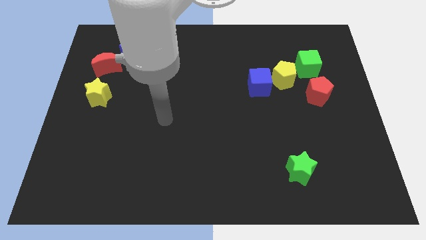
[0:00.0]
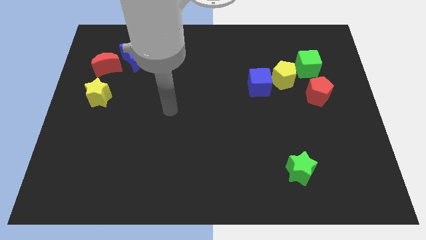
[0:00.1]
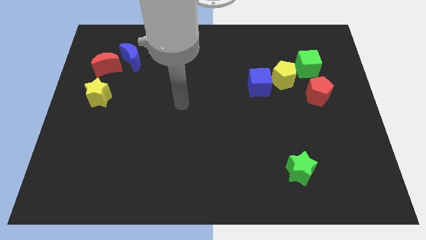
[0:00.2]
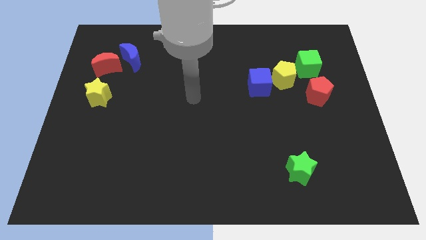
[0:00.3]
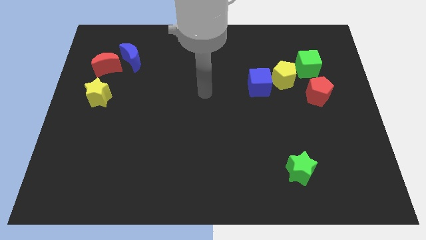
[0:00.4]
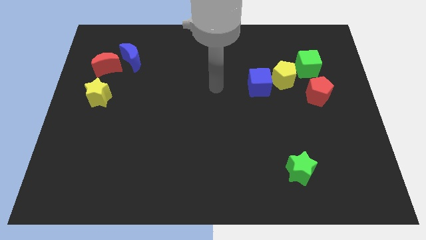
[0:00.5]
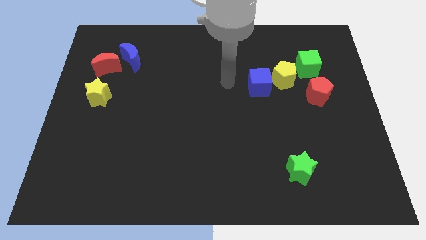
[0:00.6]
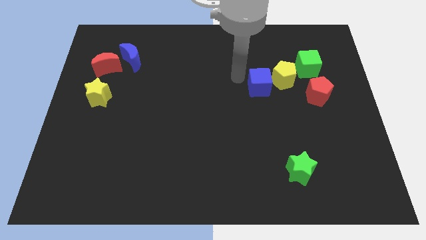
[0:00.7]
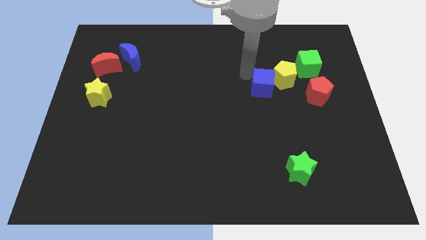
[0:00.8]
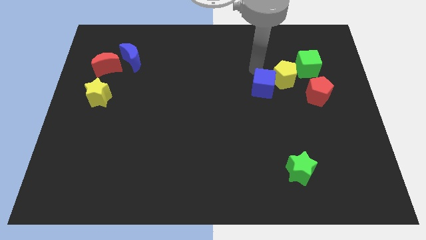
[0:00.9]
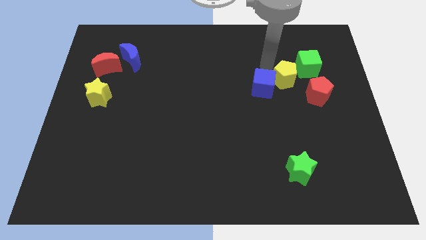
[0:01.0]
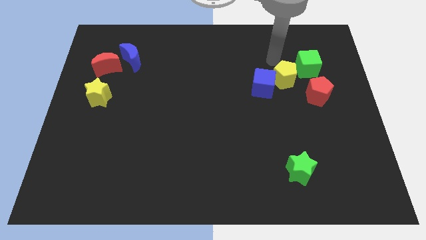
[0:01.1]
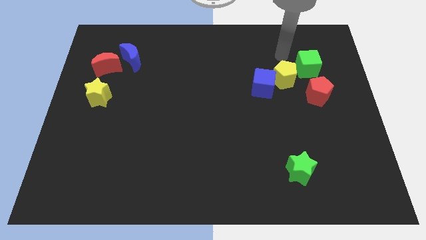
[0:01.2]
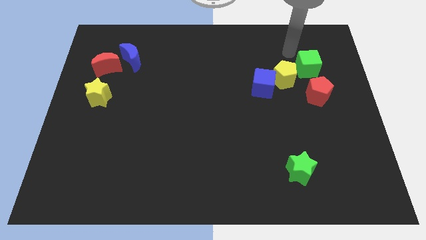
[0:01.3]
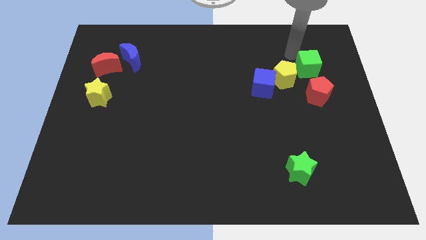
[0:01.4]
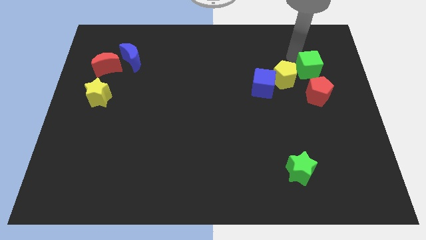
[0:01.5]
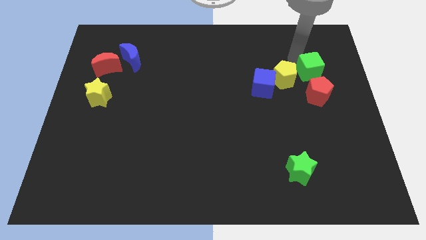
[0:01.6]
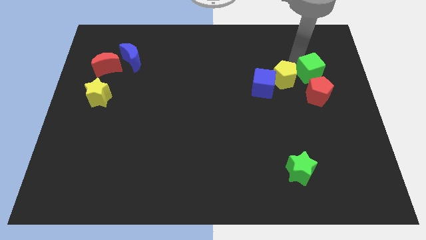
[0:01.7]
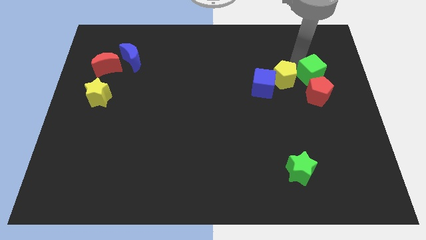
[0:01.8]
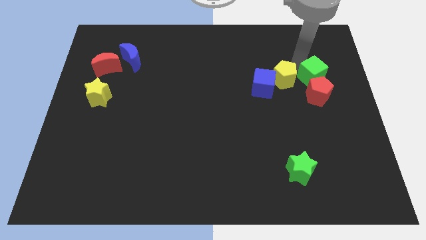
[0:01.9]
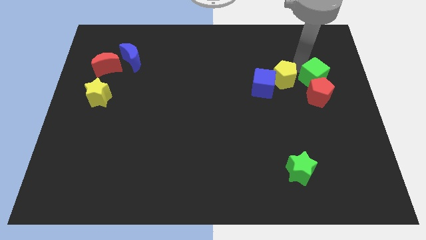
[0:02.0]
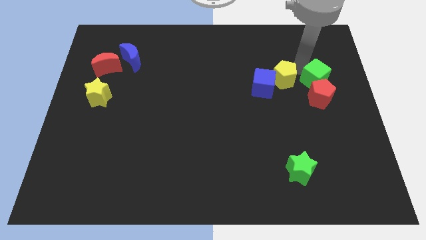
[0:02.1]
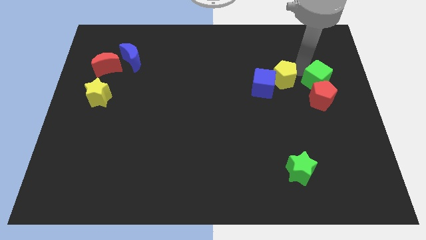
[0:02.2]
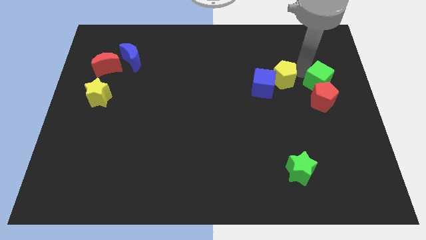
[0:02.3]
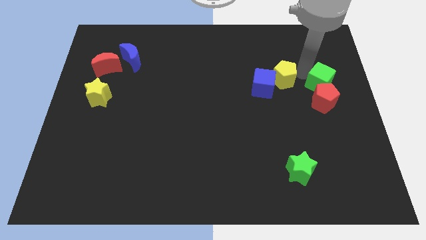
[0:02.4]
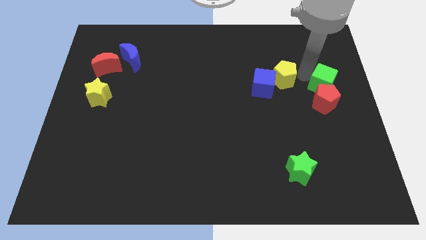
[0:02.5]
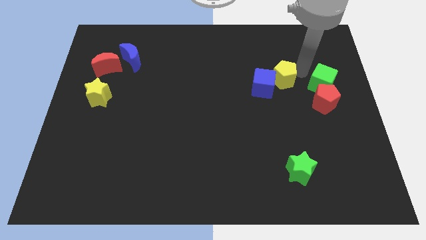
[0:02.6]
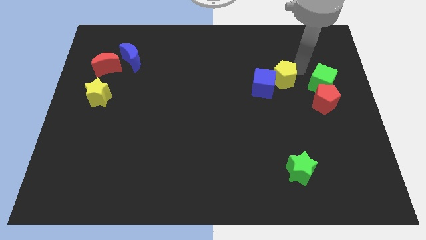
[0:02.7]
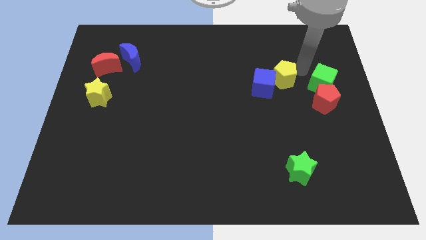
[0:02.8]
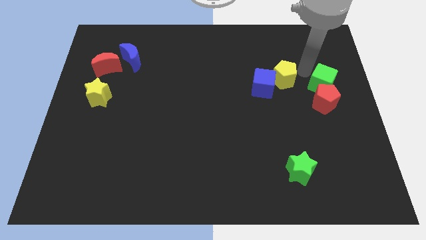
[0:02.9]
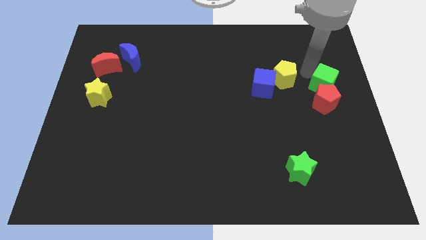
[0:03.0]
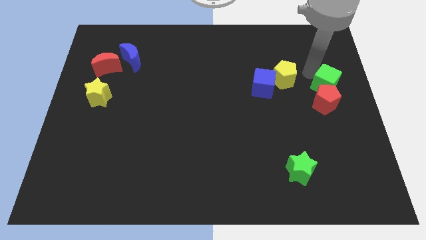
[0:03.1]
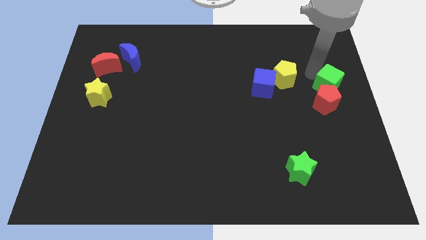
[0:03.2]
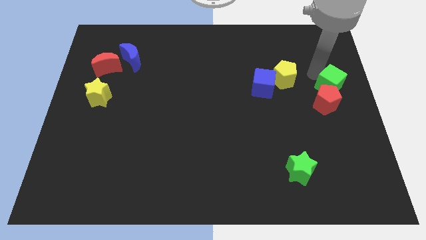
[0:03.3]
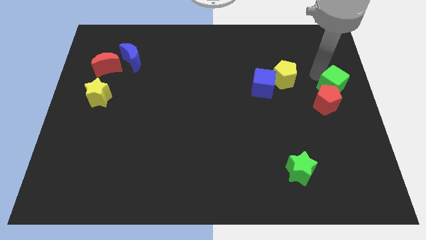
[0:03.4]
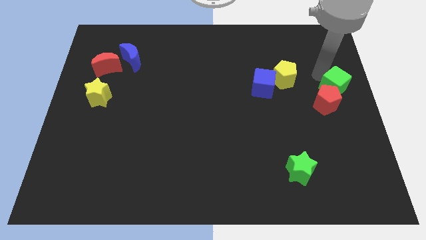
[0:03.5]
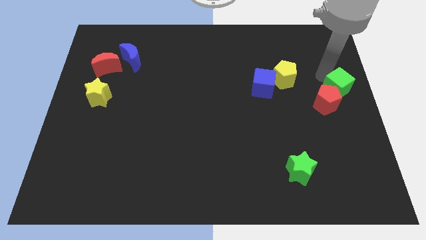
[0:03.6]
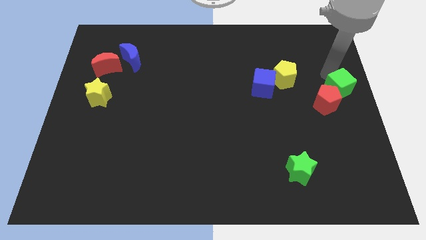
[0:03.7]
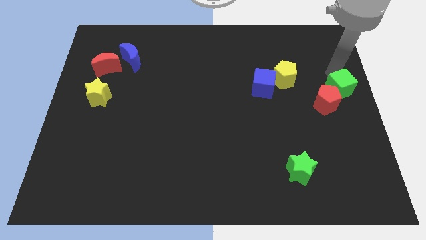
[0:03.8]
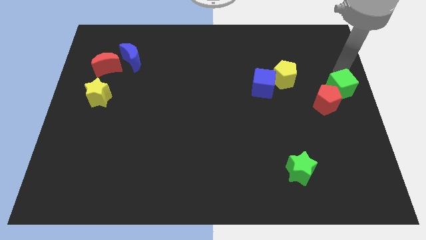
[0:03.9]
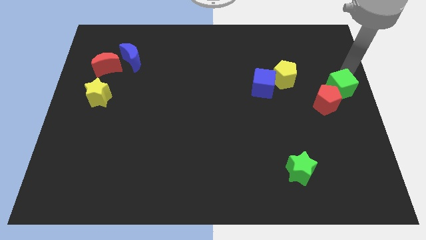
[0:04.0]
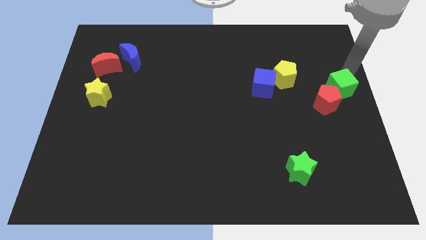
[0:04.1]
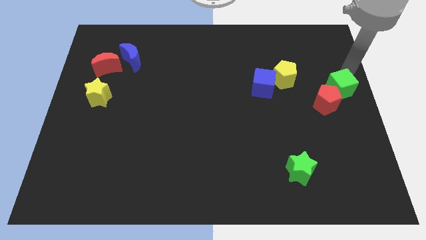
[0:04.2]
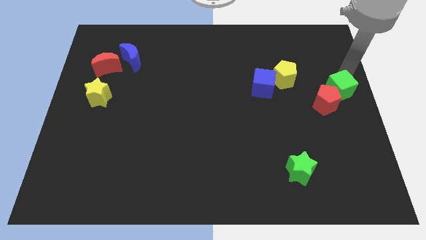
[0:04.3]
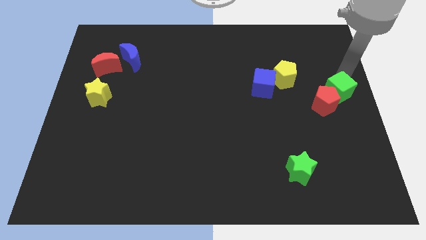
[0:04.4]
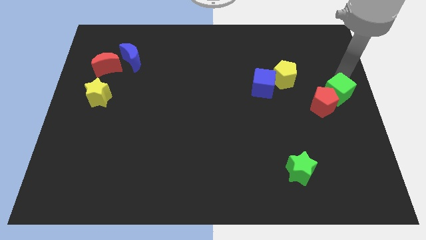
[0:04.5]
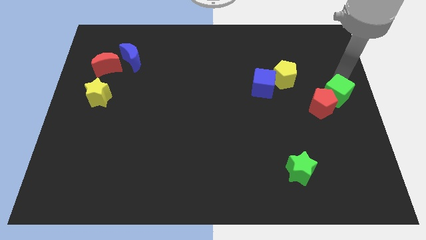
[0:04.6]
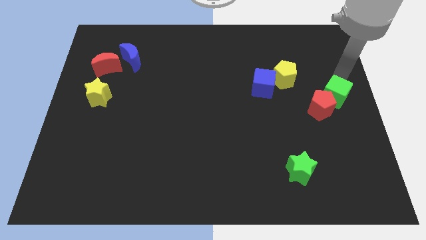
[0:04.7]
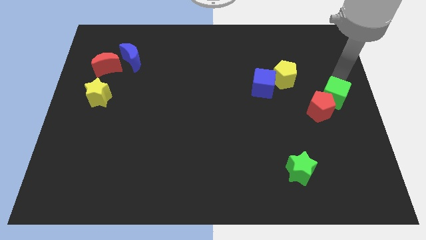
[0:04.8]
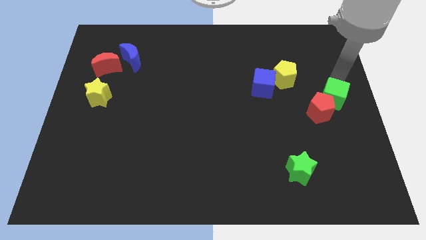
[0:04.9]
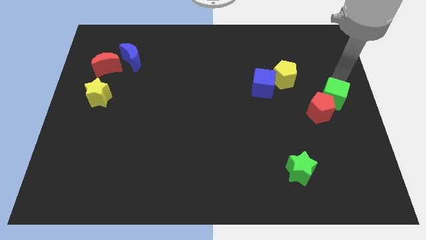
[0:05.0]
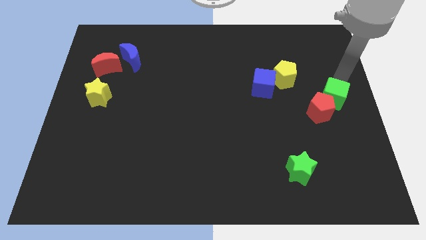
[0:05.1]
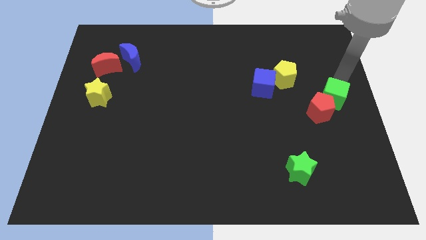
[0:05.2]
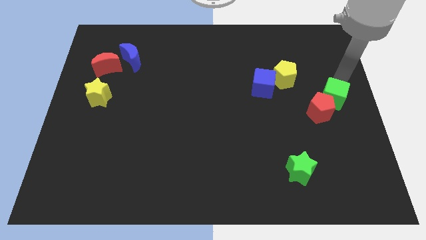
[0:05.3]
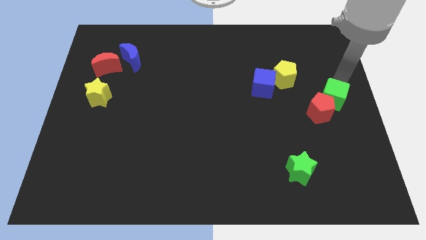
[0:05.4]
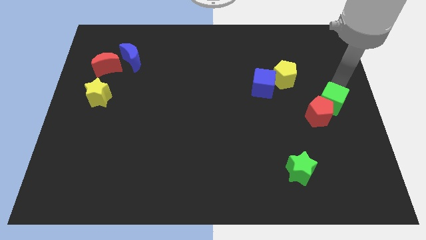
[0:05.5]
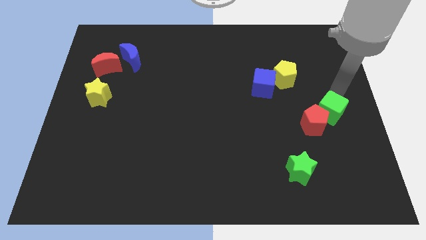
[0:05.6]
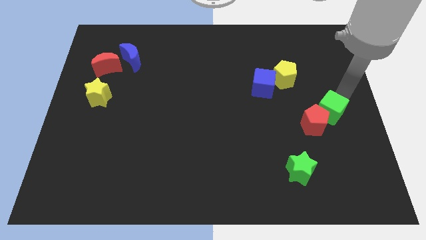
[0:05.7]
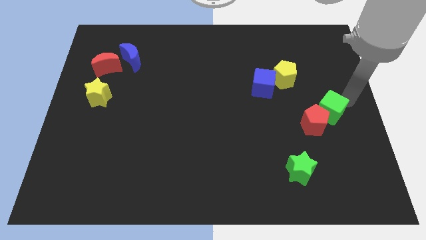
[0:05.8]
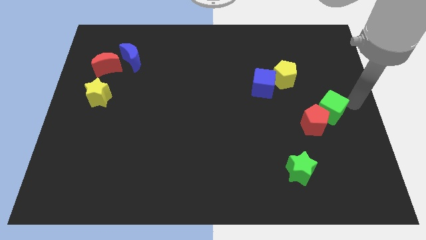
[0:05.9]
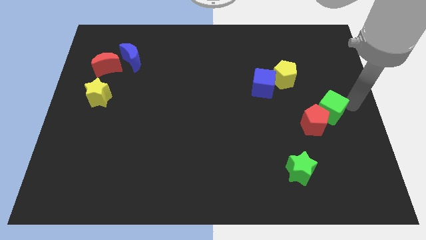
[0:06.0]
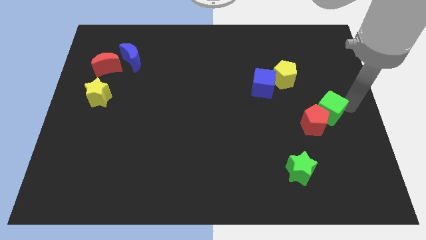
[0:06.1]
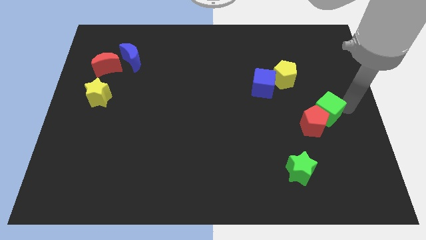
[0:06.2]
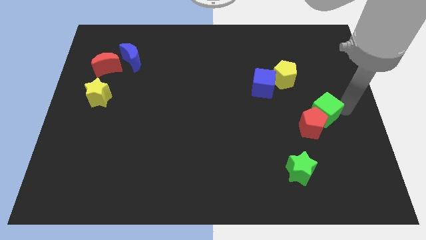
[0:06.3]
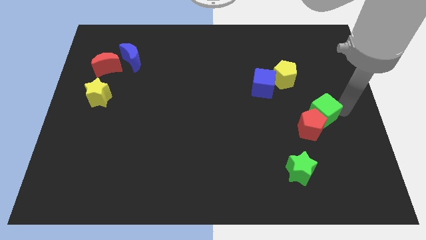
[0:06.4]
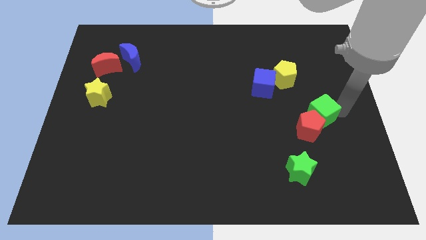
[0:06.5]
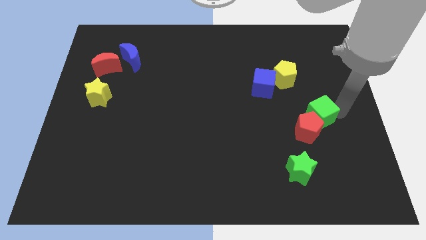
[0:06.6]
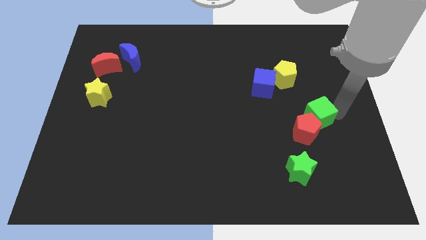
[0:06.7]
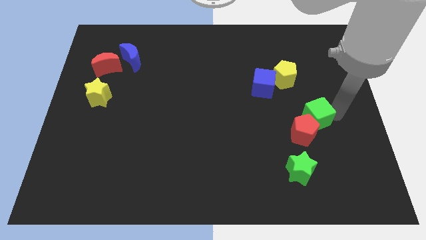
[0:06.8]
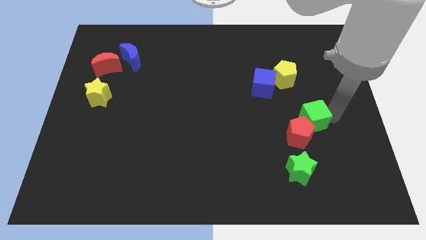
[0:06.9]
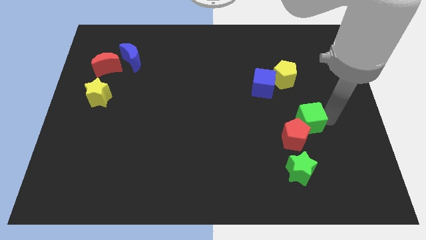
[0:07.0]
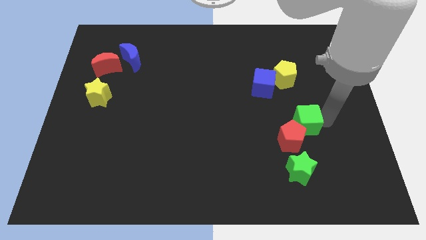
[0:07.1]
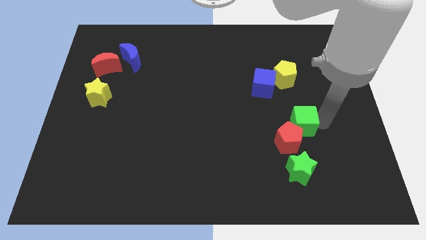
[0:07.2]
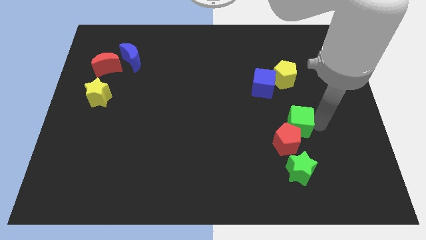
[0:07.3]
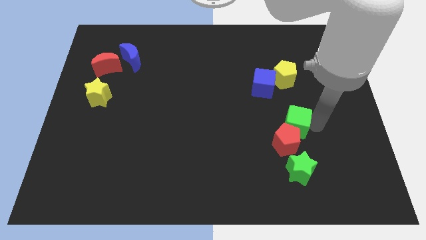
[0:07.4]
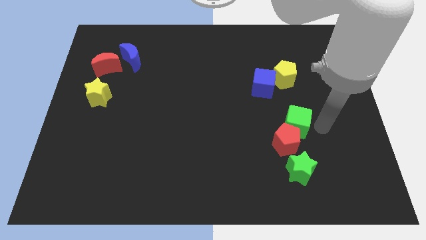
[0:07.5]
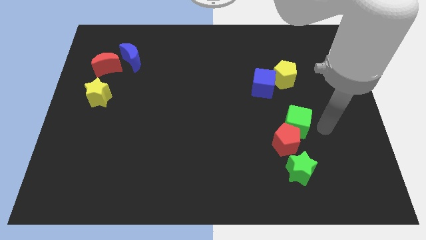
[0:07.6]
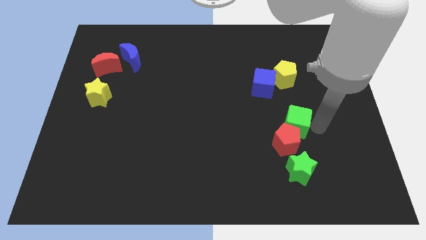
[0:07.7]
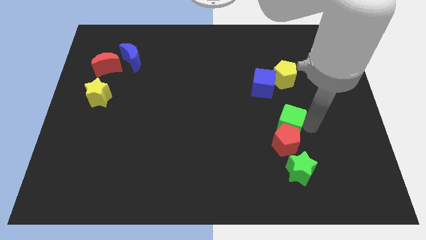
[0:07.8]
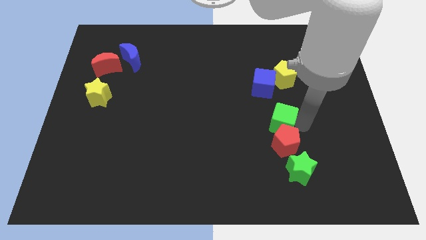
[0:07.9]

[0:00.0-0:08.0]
push the green cube below the blue cube
